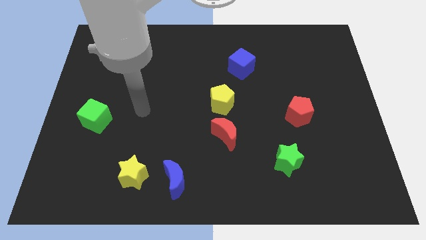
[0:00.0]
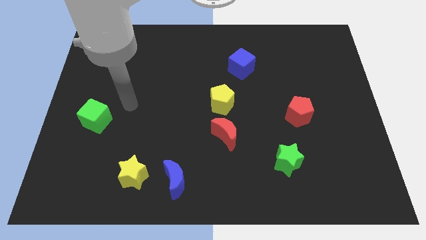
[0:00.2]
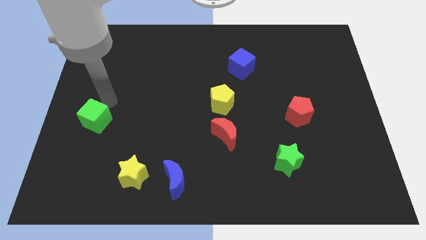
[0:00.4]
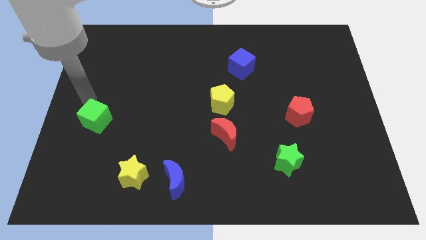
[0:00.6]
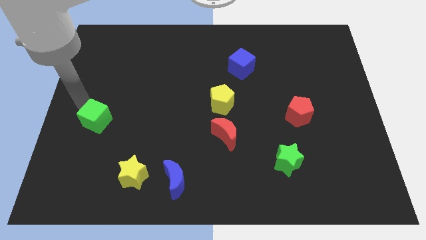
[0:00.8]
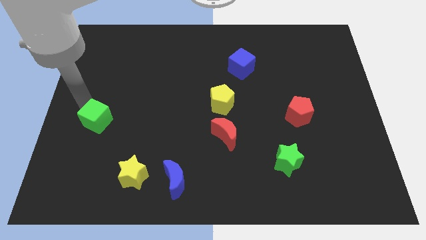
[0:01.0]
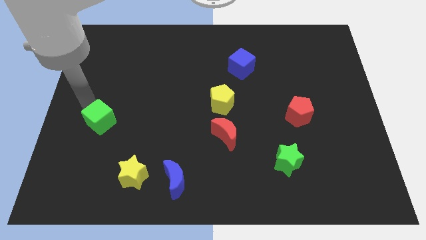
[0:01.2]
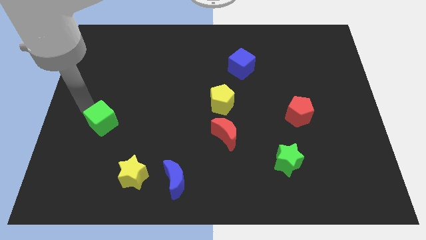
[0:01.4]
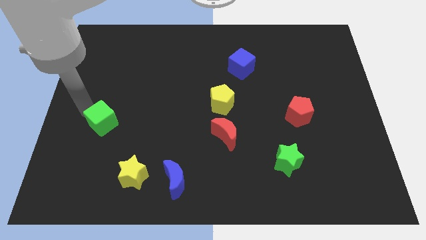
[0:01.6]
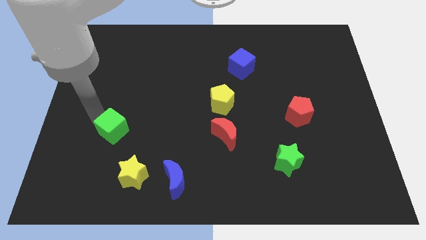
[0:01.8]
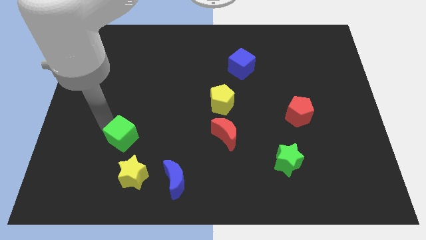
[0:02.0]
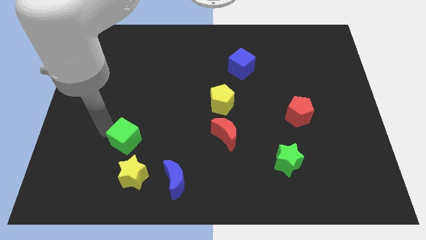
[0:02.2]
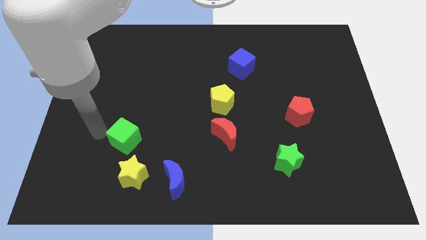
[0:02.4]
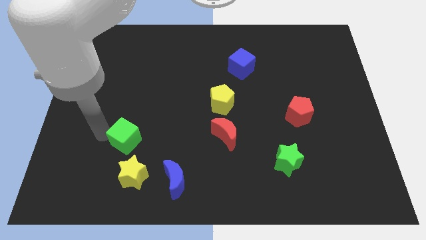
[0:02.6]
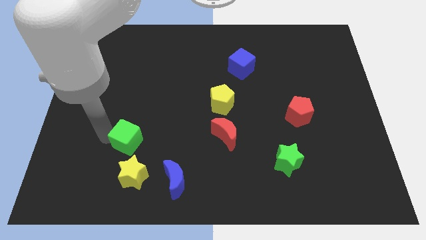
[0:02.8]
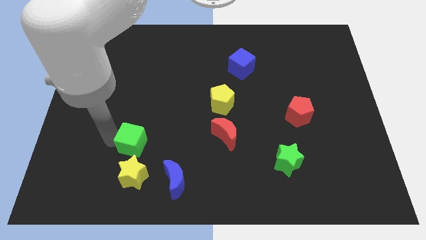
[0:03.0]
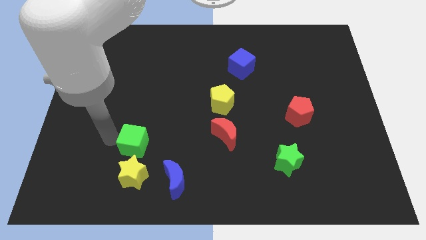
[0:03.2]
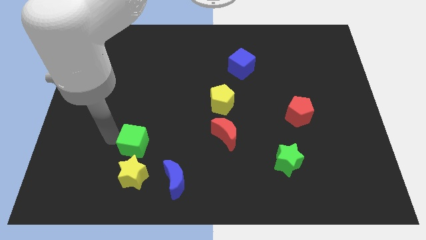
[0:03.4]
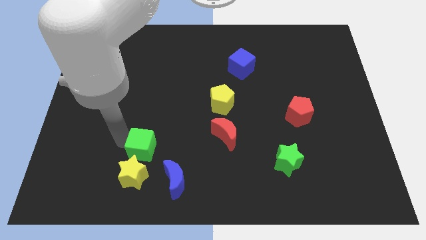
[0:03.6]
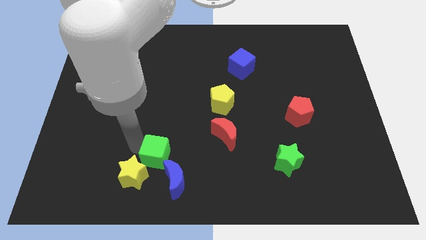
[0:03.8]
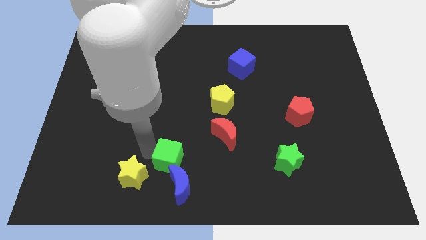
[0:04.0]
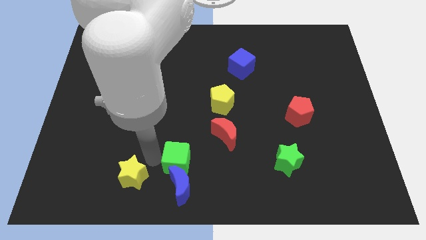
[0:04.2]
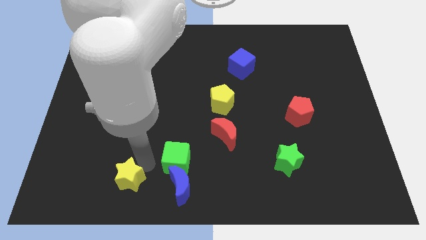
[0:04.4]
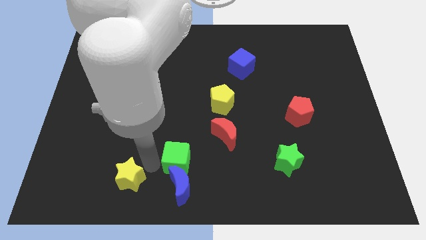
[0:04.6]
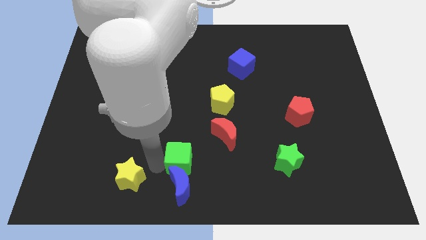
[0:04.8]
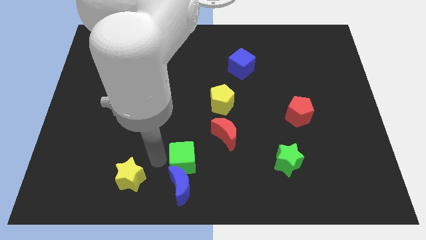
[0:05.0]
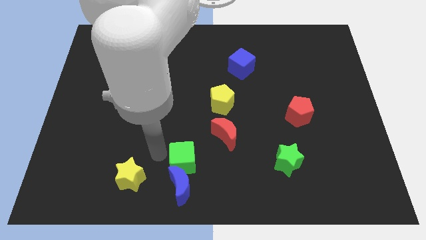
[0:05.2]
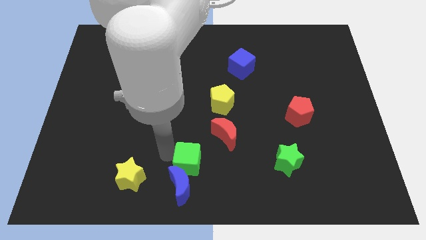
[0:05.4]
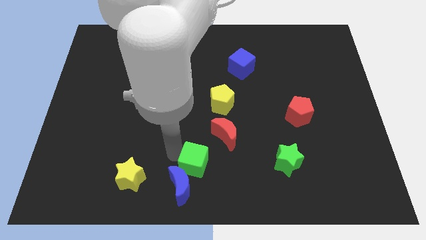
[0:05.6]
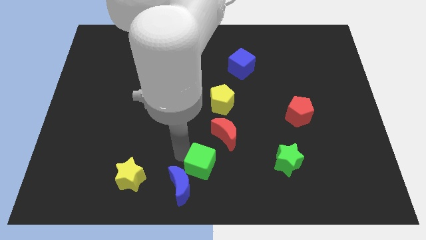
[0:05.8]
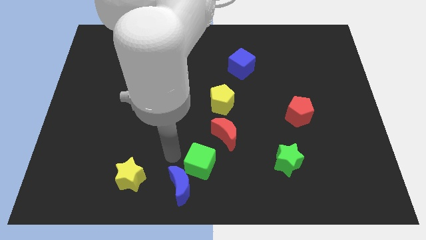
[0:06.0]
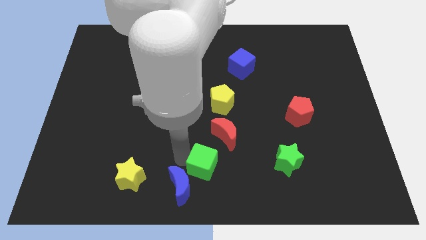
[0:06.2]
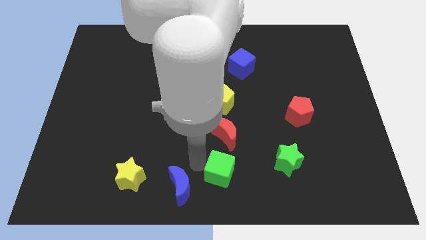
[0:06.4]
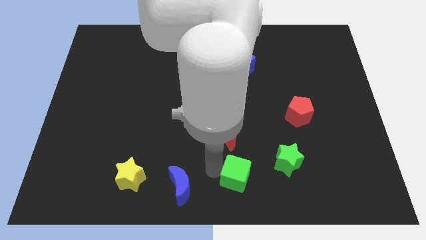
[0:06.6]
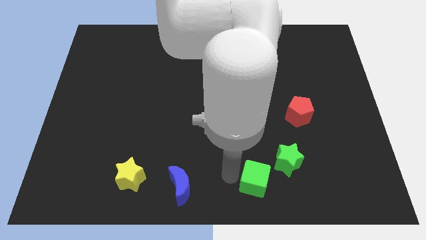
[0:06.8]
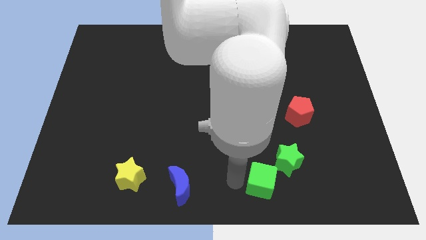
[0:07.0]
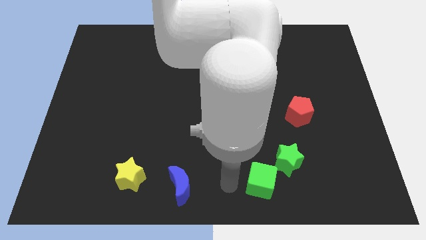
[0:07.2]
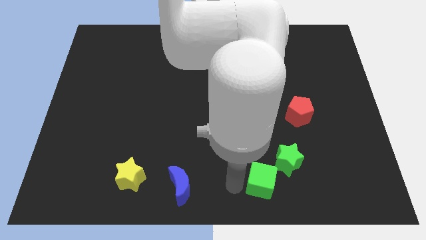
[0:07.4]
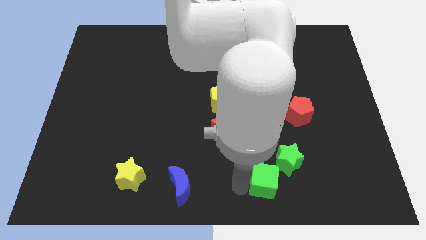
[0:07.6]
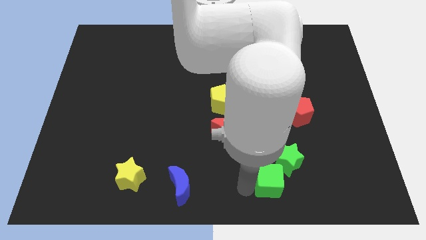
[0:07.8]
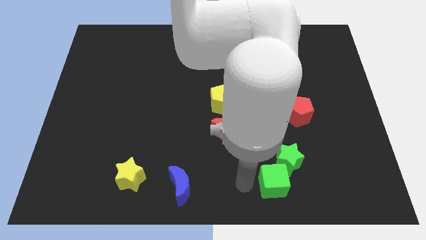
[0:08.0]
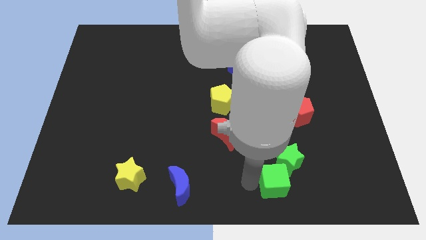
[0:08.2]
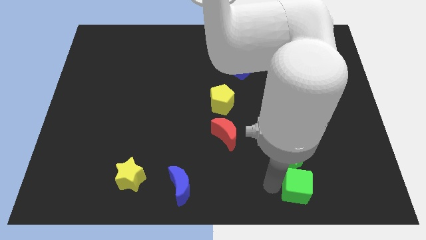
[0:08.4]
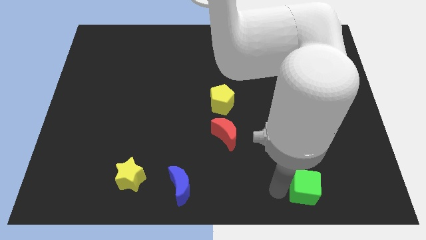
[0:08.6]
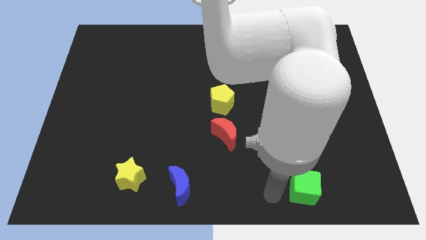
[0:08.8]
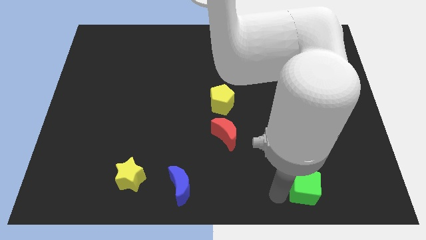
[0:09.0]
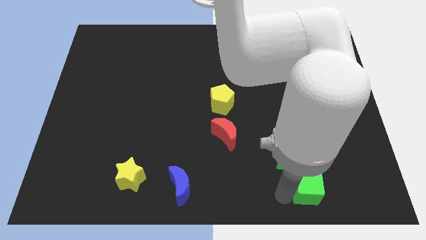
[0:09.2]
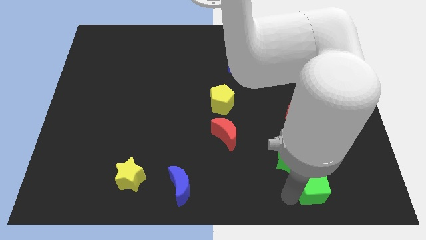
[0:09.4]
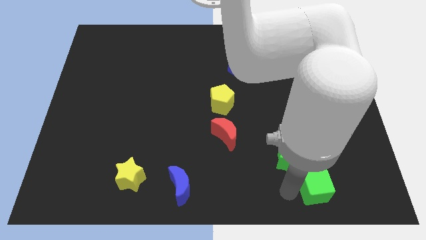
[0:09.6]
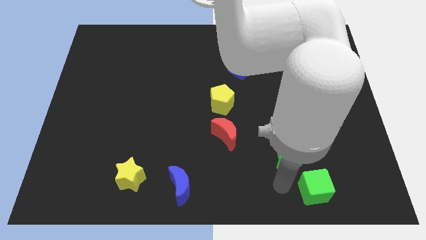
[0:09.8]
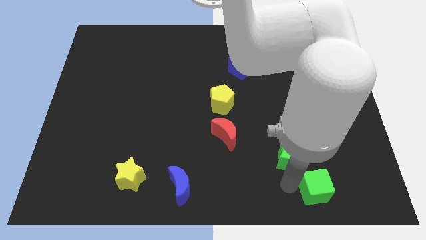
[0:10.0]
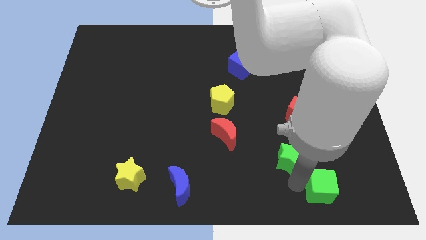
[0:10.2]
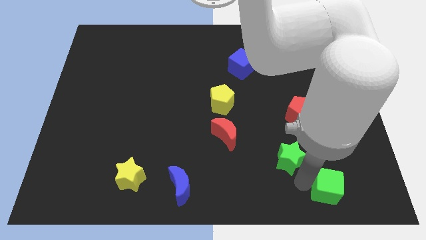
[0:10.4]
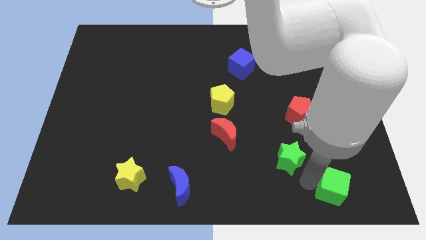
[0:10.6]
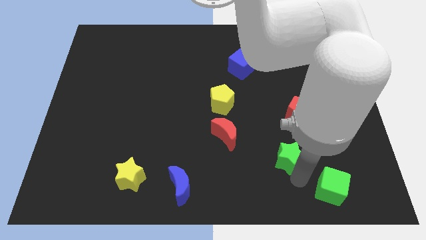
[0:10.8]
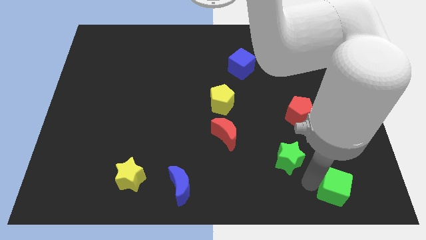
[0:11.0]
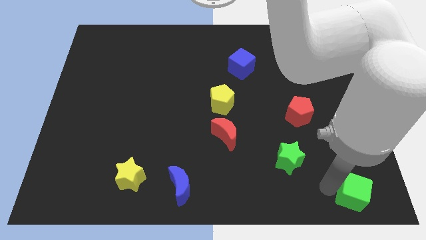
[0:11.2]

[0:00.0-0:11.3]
put the green cube to the lower right corner

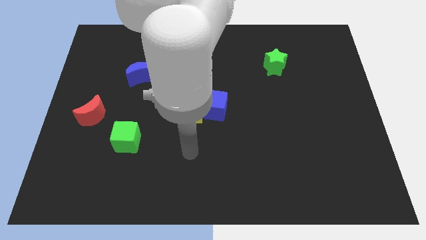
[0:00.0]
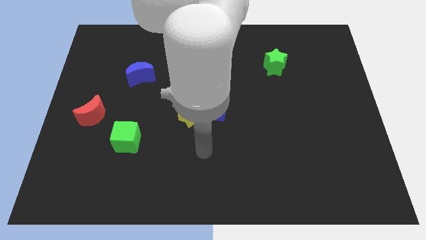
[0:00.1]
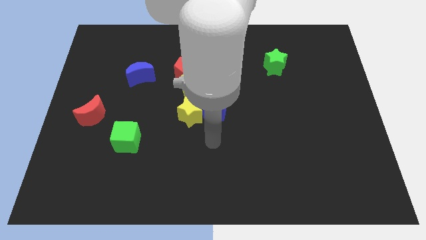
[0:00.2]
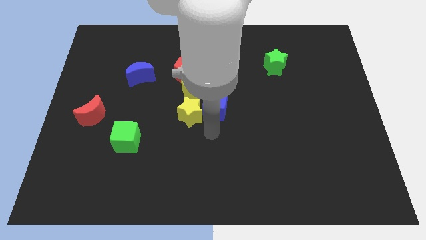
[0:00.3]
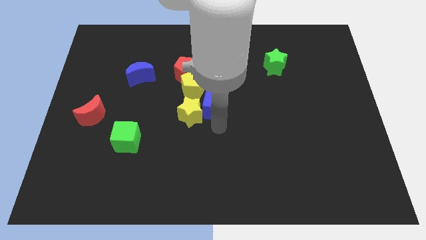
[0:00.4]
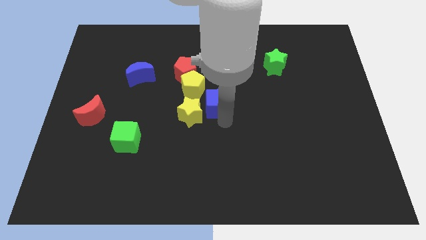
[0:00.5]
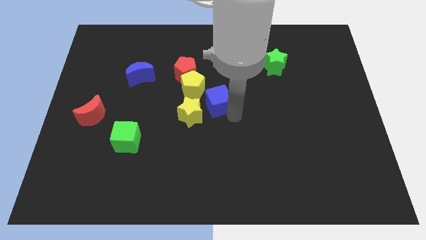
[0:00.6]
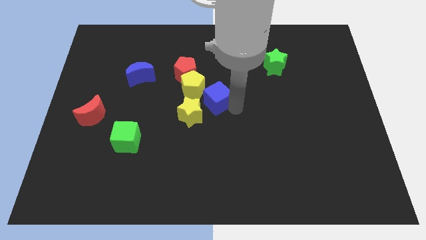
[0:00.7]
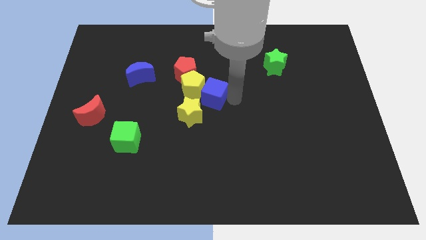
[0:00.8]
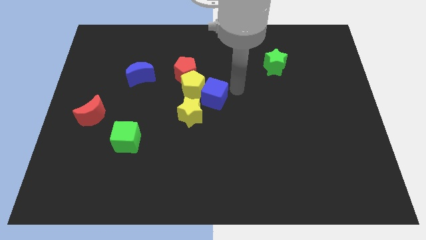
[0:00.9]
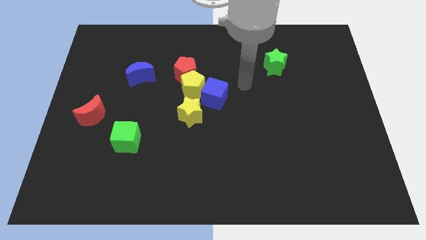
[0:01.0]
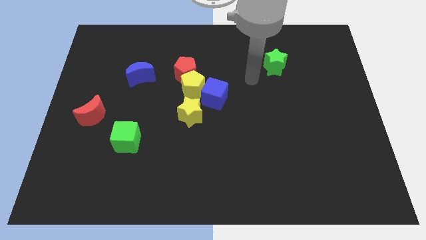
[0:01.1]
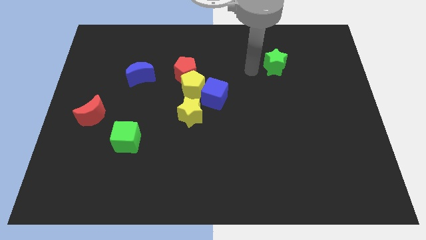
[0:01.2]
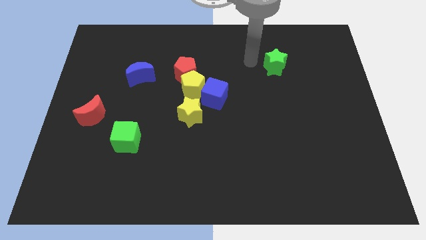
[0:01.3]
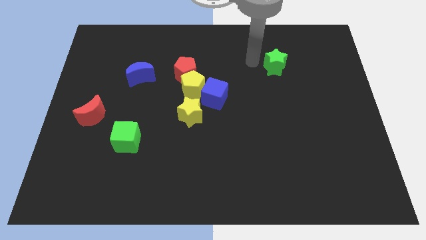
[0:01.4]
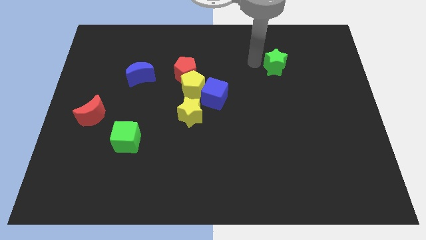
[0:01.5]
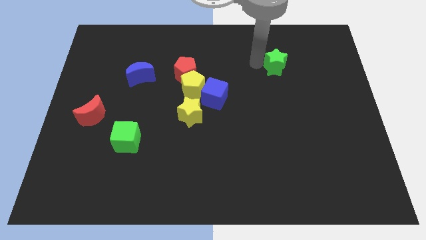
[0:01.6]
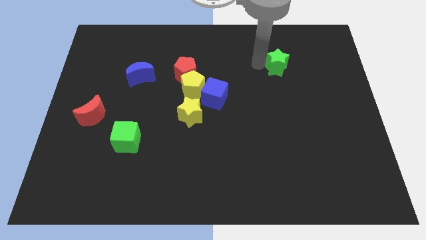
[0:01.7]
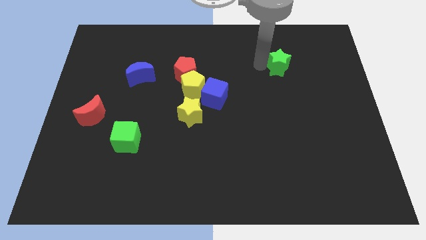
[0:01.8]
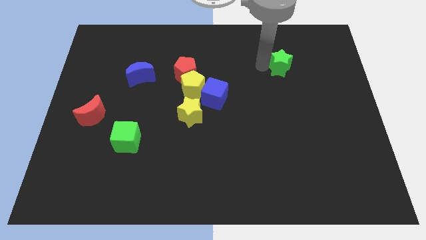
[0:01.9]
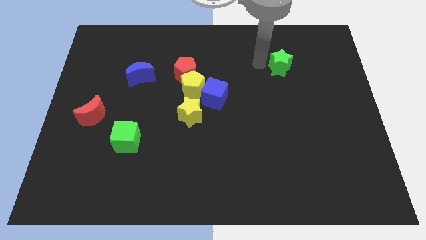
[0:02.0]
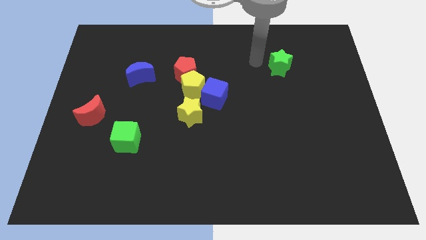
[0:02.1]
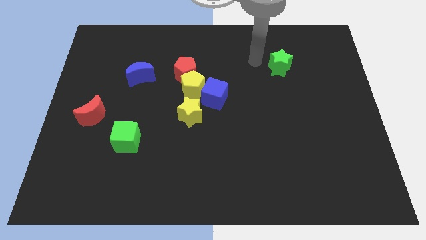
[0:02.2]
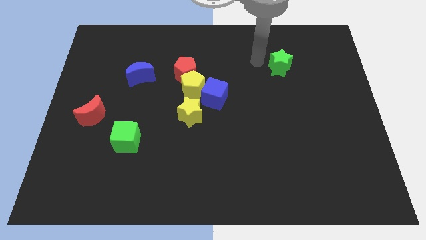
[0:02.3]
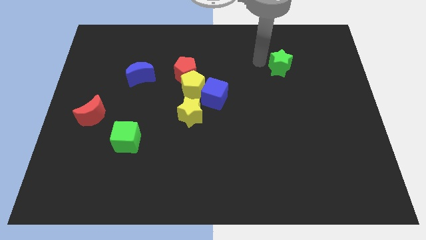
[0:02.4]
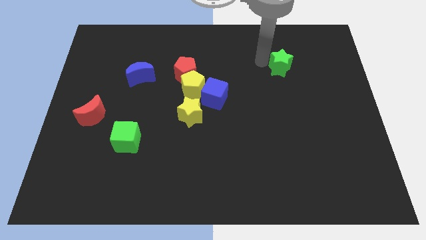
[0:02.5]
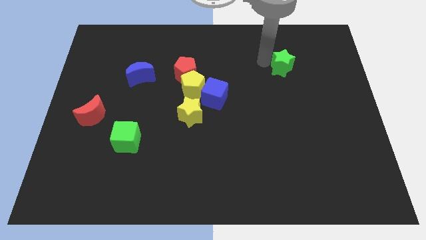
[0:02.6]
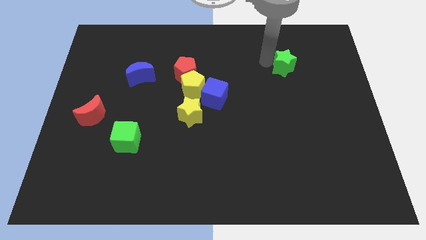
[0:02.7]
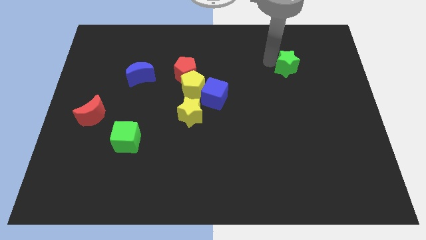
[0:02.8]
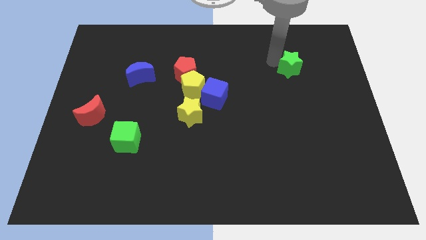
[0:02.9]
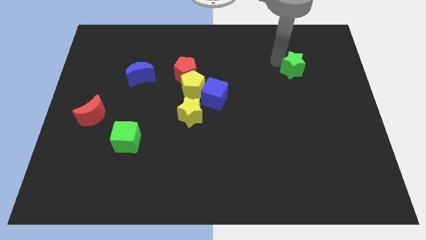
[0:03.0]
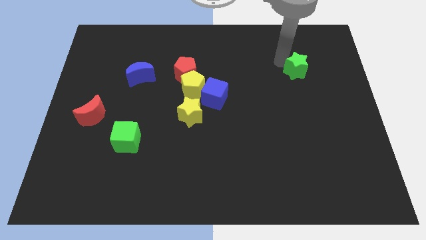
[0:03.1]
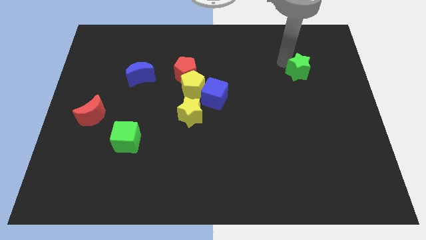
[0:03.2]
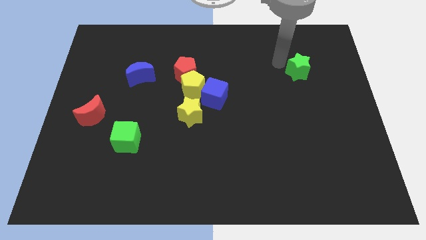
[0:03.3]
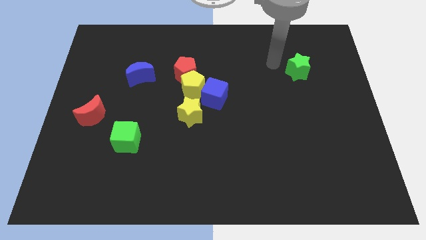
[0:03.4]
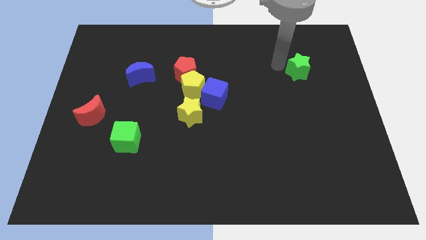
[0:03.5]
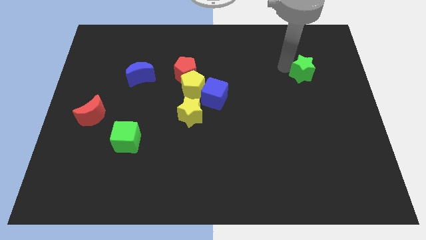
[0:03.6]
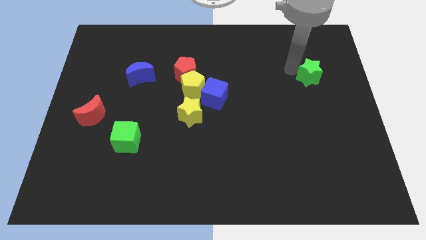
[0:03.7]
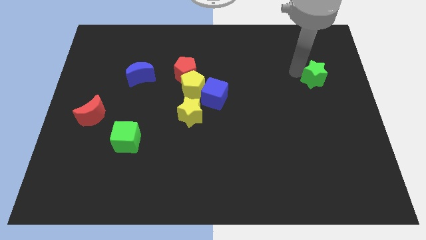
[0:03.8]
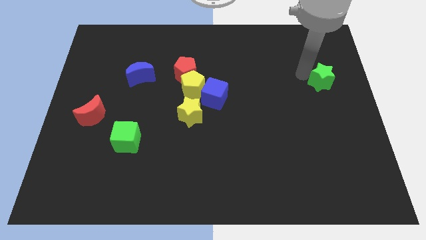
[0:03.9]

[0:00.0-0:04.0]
put the green star to the right side
